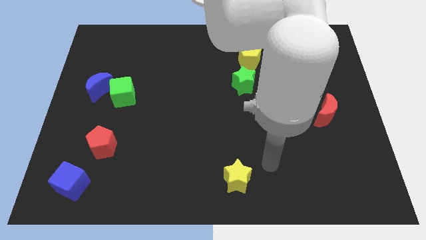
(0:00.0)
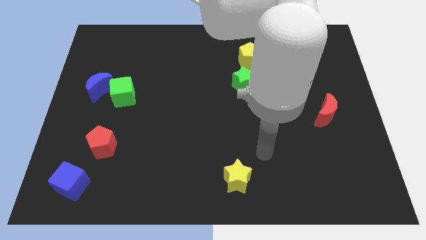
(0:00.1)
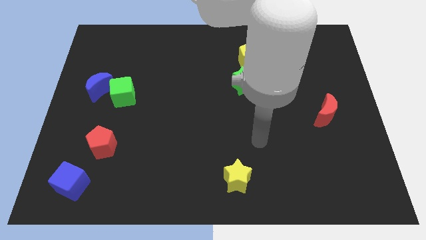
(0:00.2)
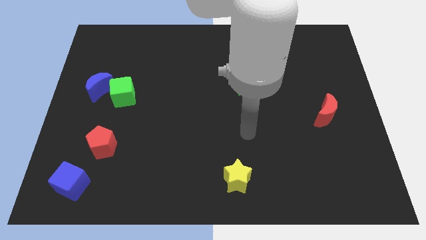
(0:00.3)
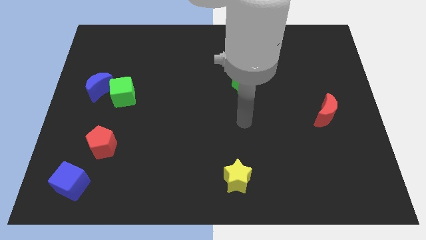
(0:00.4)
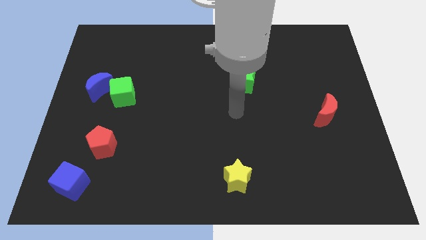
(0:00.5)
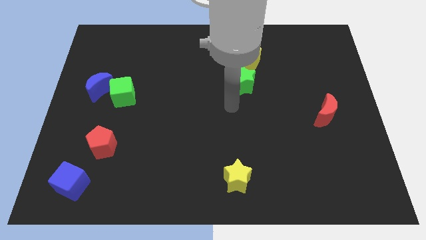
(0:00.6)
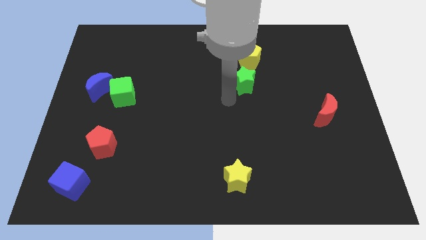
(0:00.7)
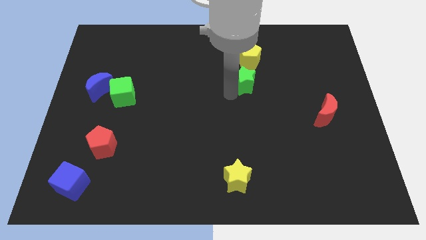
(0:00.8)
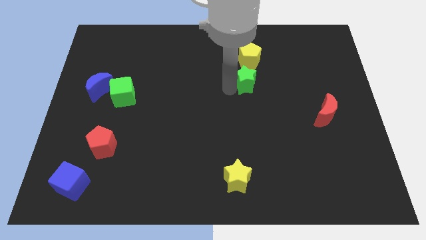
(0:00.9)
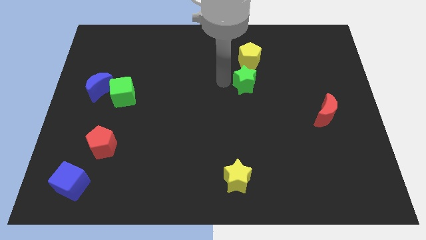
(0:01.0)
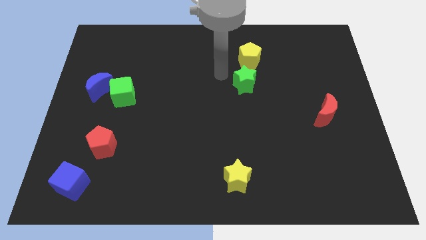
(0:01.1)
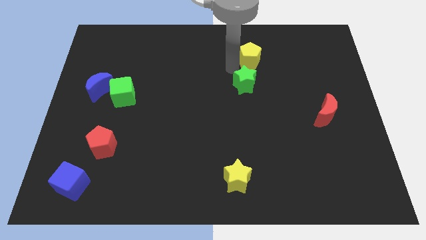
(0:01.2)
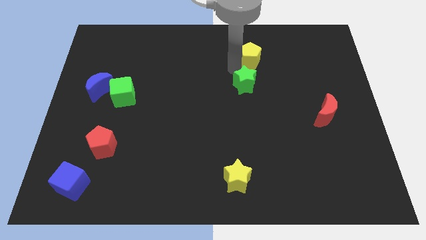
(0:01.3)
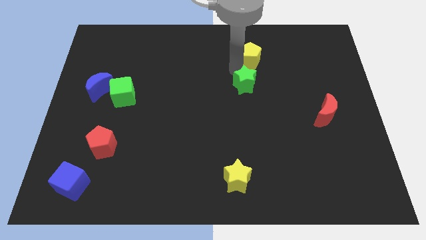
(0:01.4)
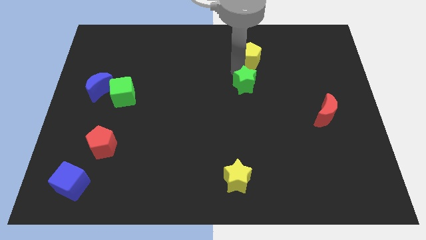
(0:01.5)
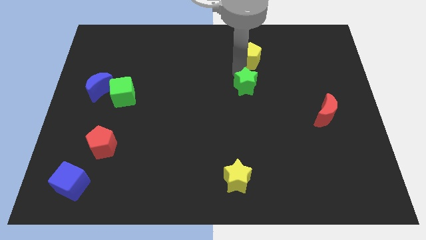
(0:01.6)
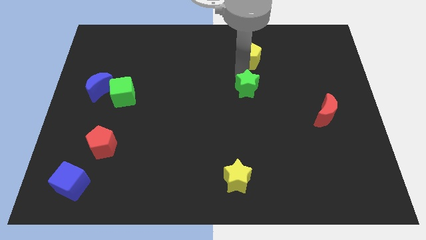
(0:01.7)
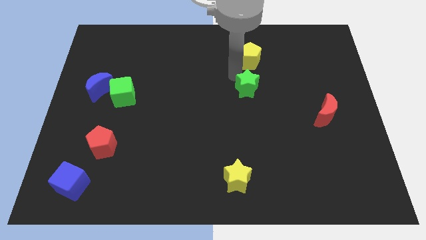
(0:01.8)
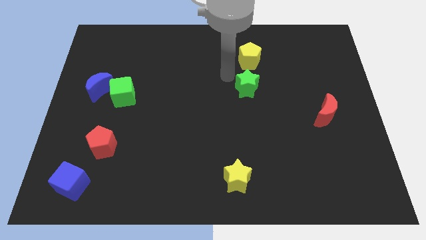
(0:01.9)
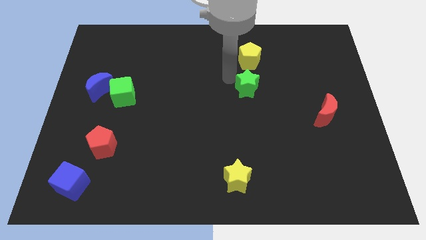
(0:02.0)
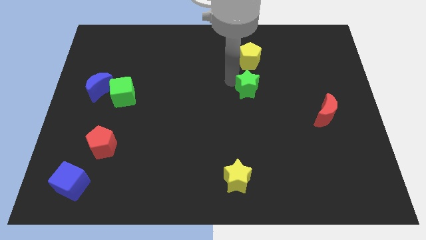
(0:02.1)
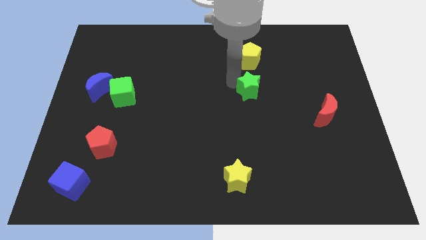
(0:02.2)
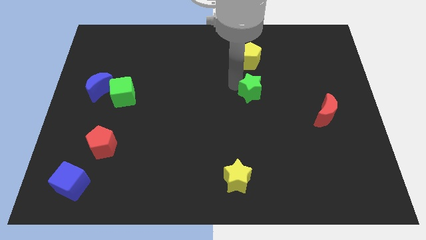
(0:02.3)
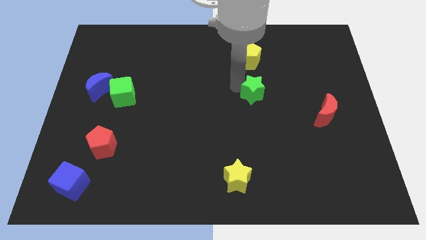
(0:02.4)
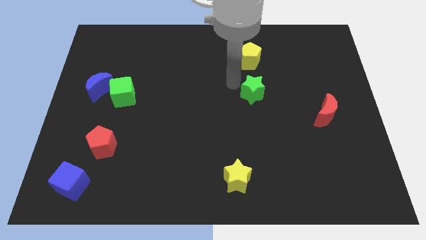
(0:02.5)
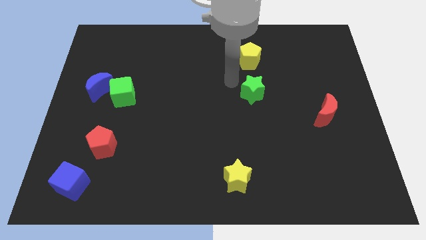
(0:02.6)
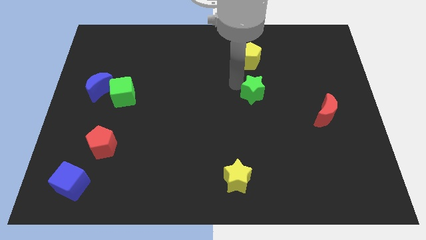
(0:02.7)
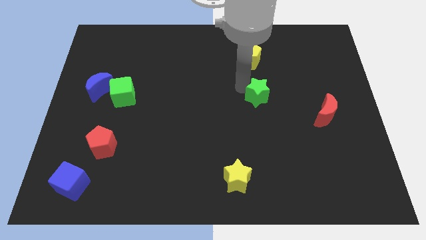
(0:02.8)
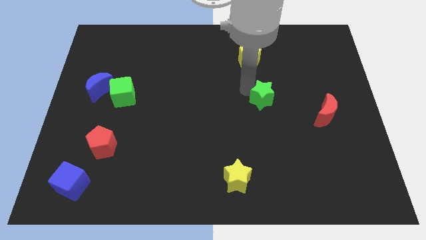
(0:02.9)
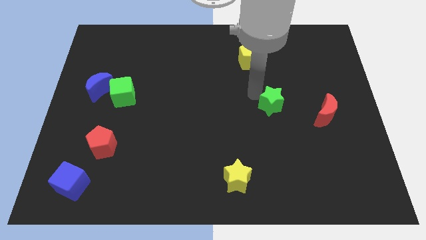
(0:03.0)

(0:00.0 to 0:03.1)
push the green star diagonally down and right a little bit

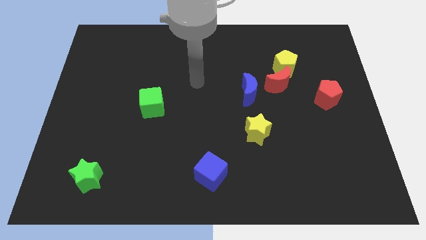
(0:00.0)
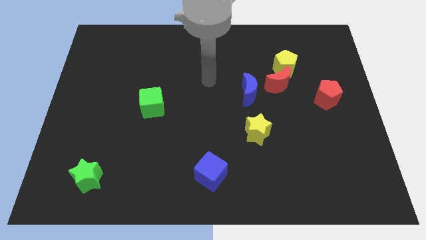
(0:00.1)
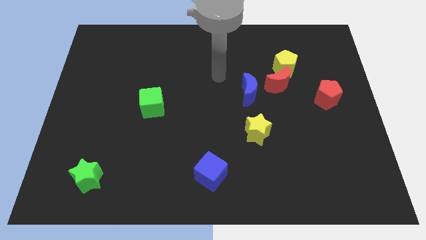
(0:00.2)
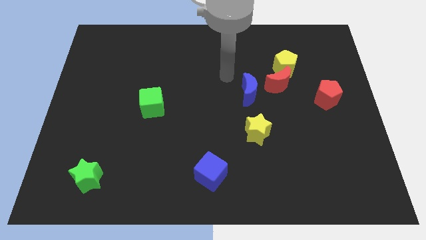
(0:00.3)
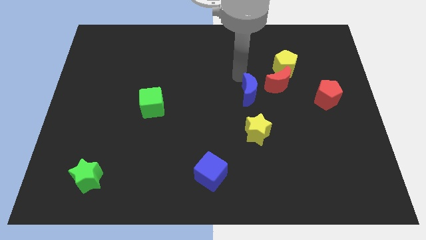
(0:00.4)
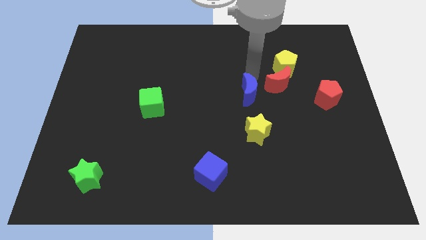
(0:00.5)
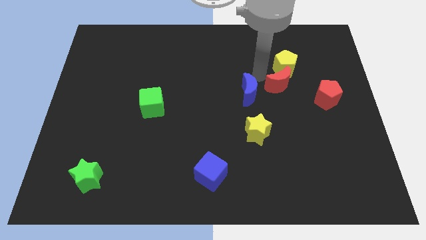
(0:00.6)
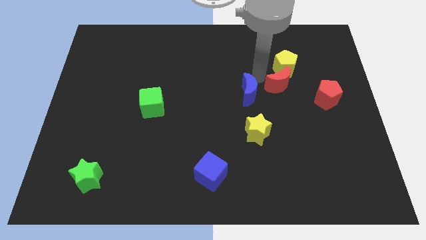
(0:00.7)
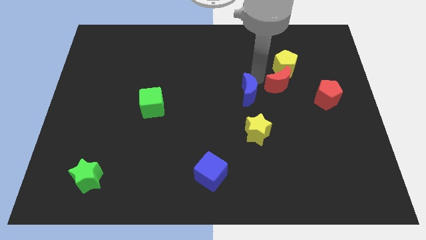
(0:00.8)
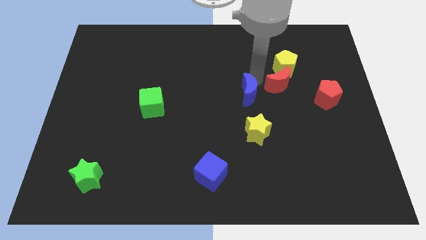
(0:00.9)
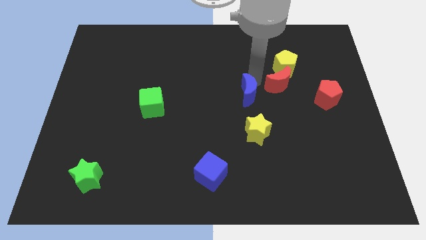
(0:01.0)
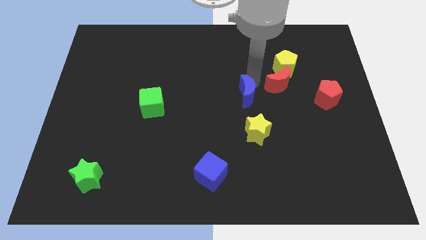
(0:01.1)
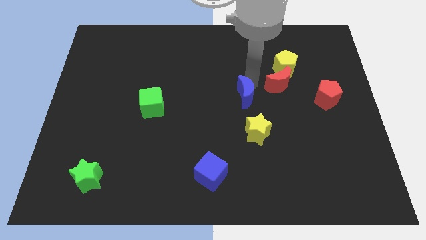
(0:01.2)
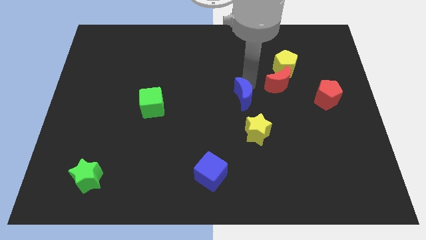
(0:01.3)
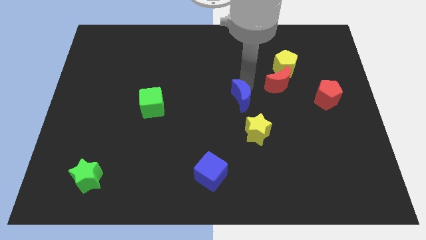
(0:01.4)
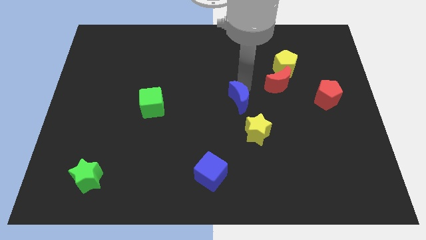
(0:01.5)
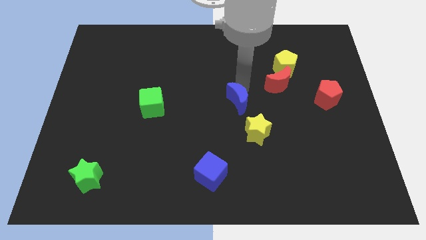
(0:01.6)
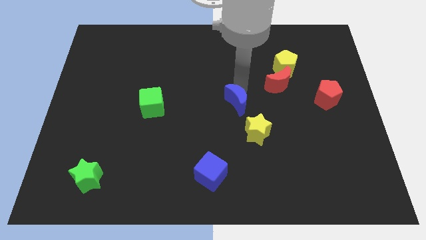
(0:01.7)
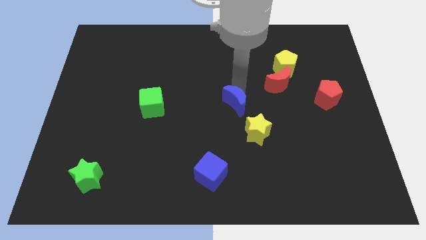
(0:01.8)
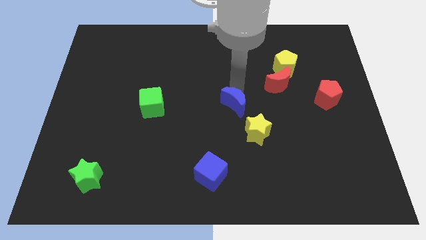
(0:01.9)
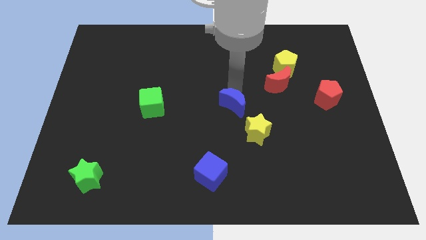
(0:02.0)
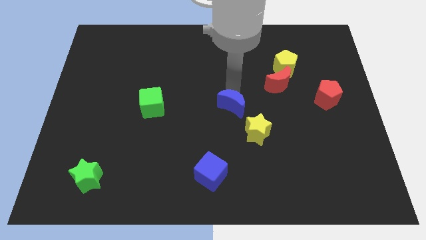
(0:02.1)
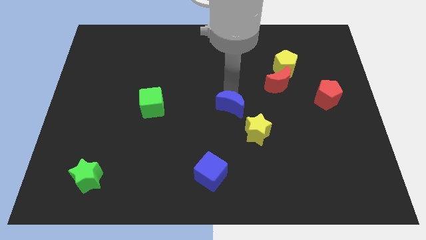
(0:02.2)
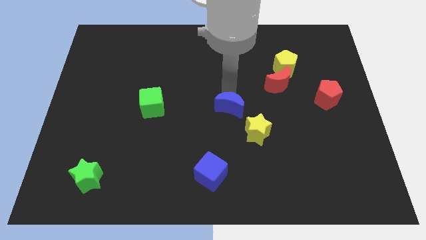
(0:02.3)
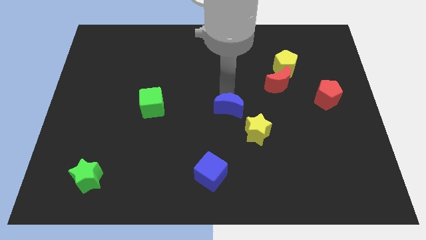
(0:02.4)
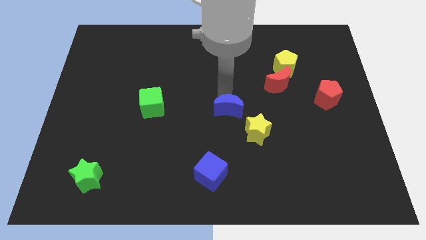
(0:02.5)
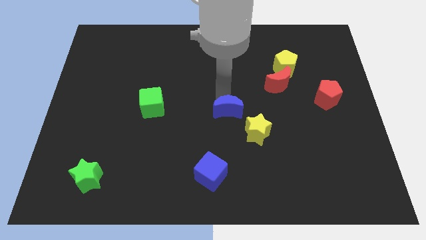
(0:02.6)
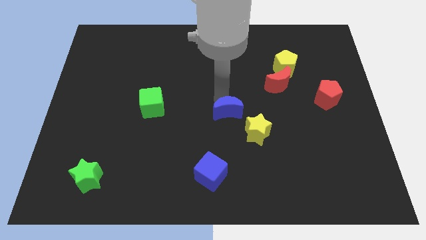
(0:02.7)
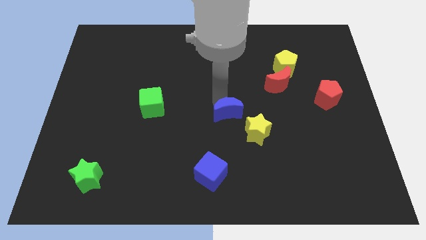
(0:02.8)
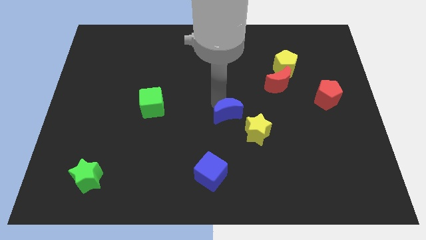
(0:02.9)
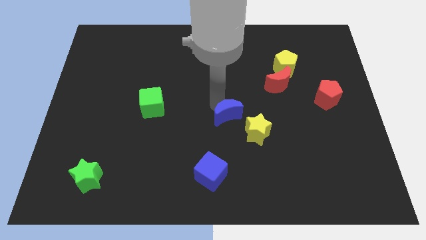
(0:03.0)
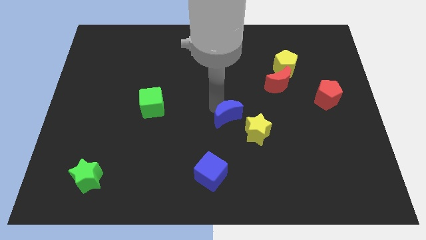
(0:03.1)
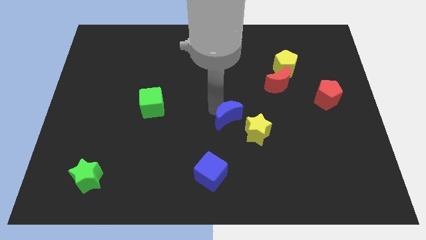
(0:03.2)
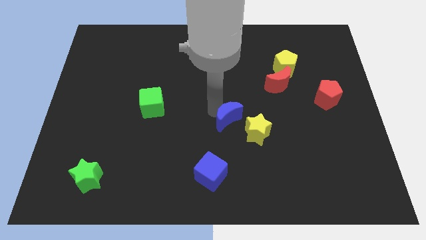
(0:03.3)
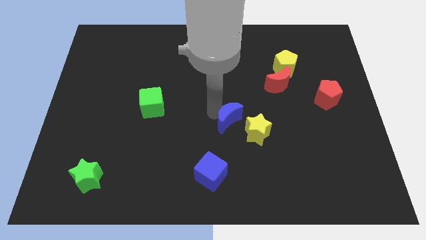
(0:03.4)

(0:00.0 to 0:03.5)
slightly move the blue moon down

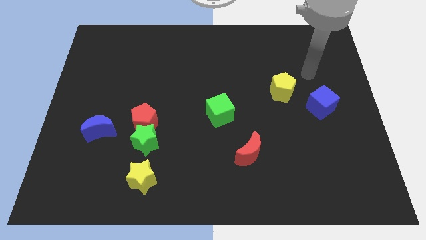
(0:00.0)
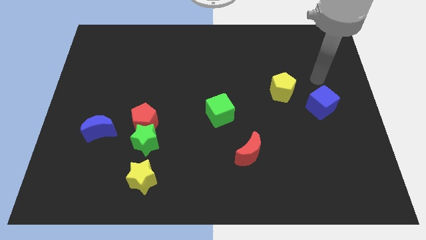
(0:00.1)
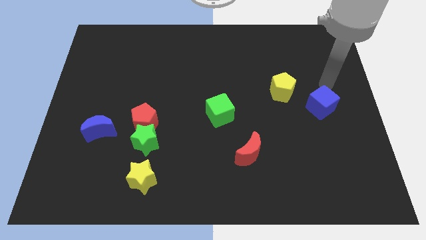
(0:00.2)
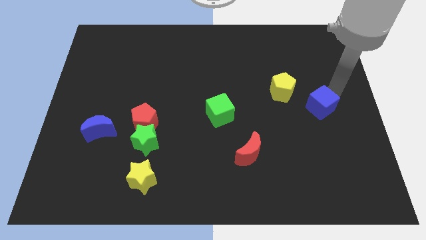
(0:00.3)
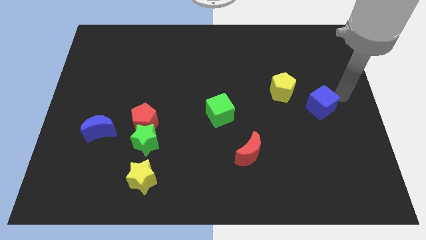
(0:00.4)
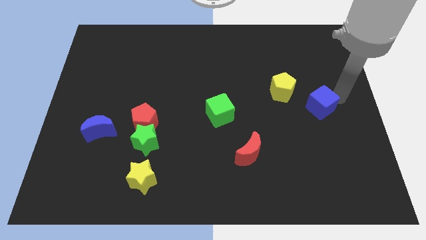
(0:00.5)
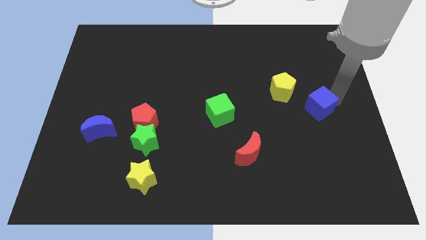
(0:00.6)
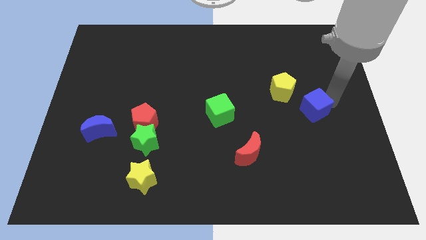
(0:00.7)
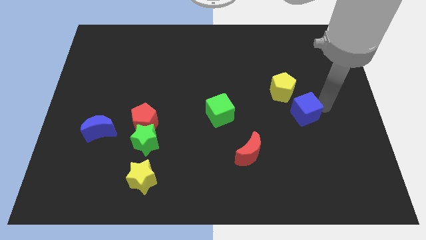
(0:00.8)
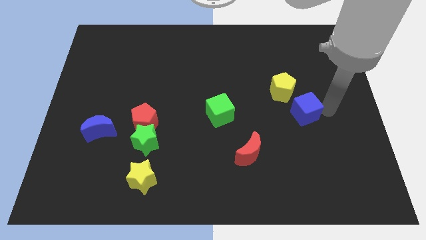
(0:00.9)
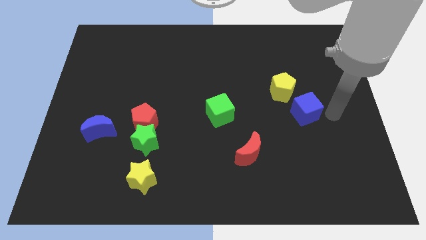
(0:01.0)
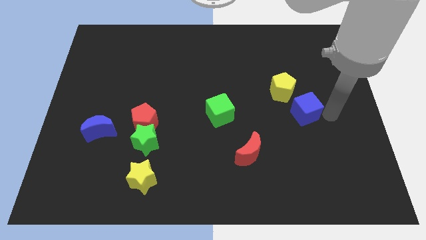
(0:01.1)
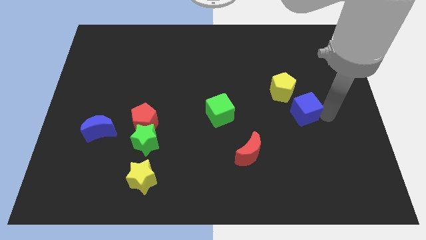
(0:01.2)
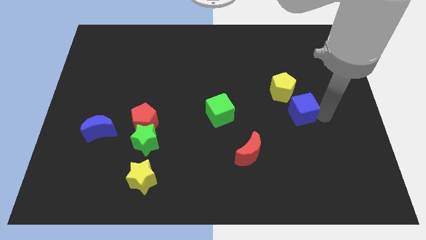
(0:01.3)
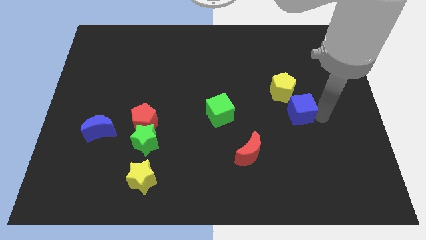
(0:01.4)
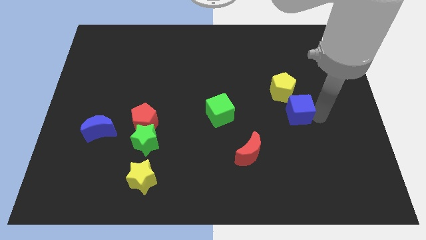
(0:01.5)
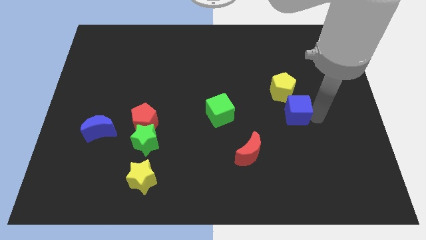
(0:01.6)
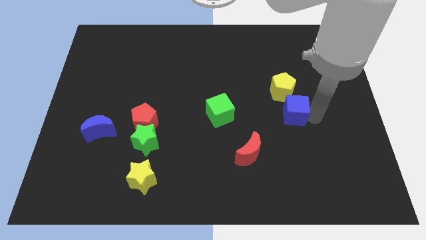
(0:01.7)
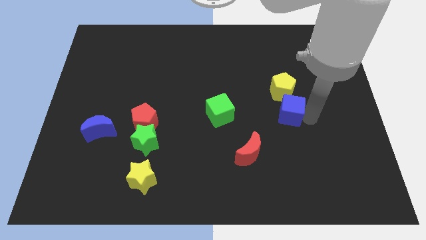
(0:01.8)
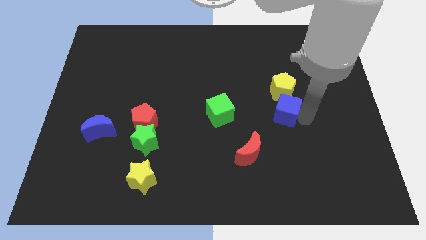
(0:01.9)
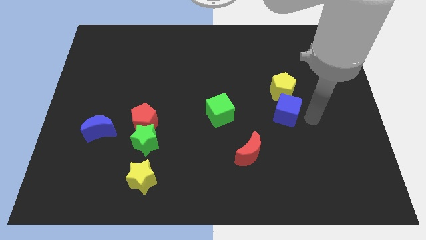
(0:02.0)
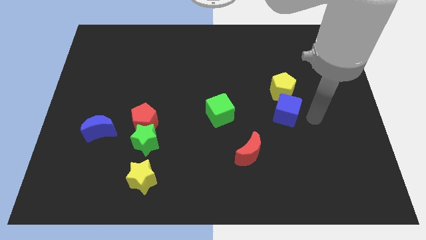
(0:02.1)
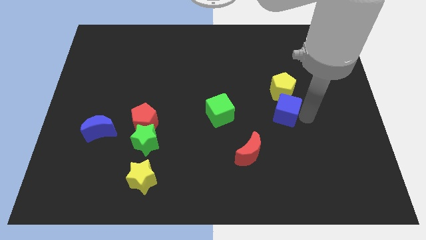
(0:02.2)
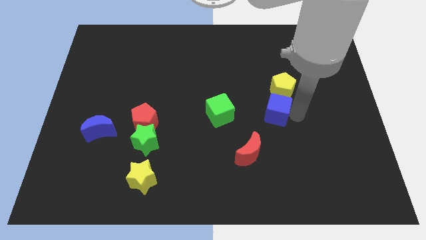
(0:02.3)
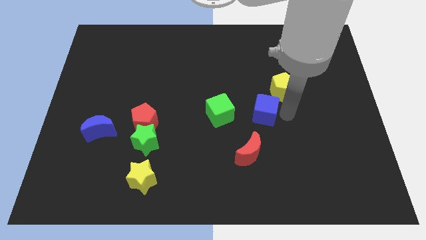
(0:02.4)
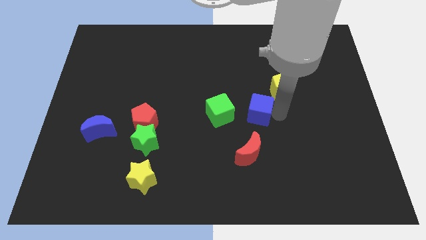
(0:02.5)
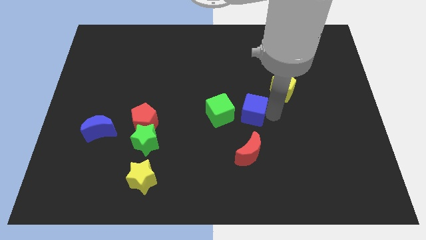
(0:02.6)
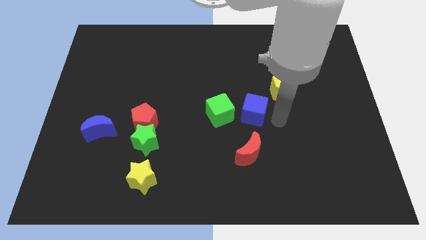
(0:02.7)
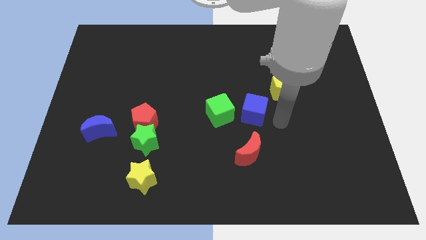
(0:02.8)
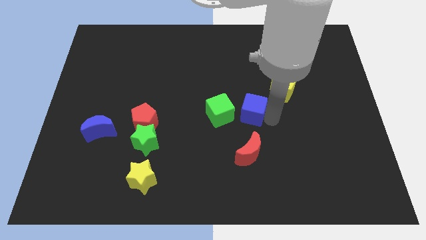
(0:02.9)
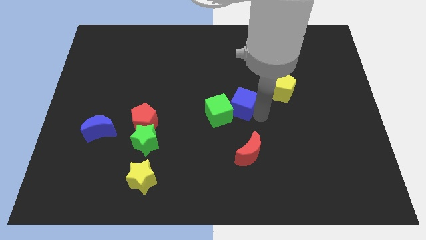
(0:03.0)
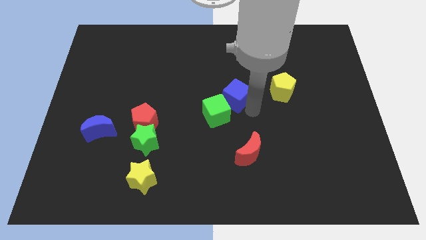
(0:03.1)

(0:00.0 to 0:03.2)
slide the blue cube to the left
